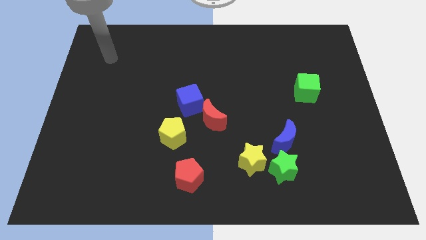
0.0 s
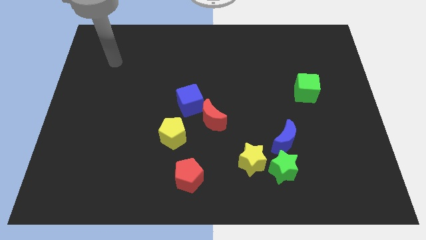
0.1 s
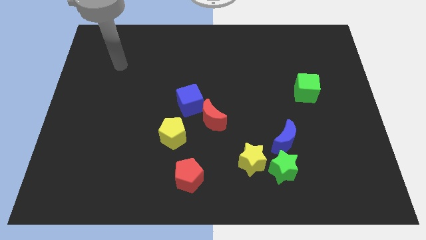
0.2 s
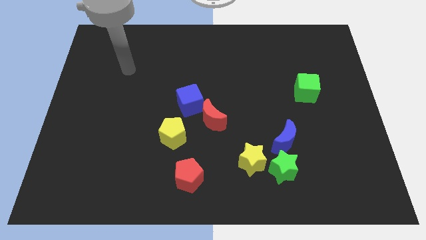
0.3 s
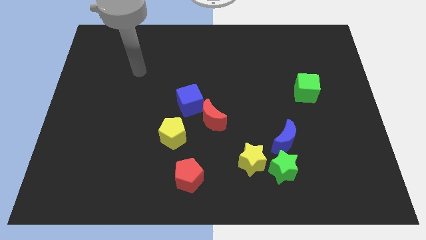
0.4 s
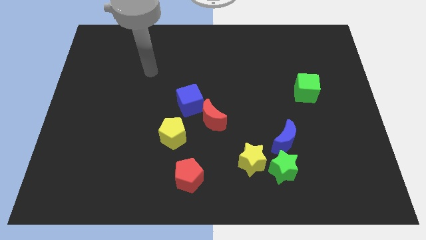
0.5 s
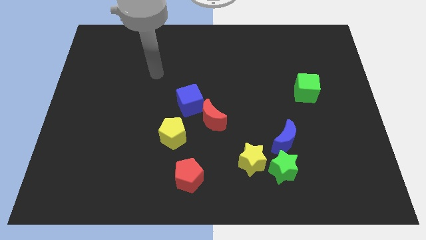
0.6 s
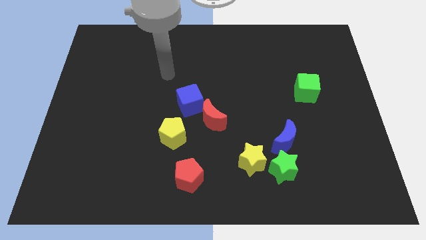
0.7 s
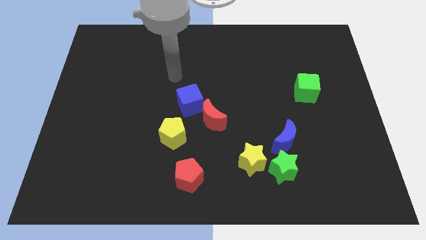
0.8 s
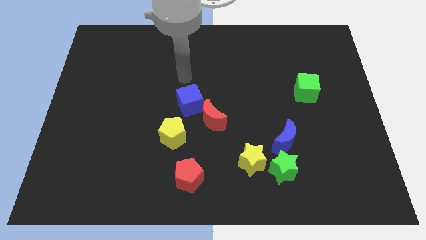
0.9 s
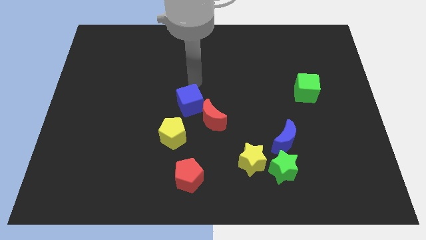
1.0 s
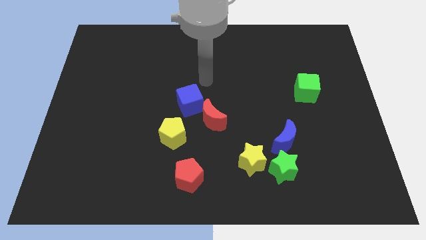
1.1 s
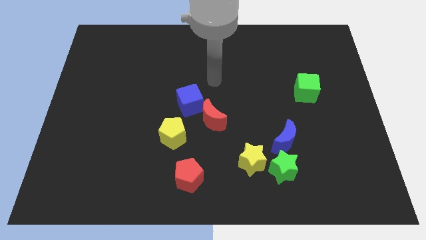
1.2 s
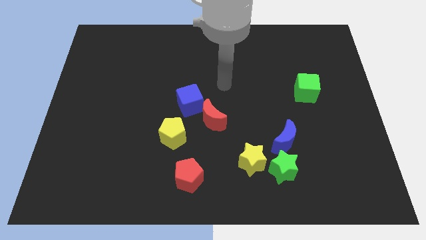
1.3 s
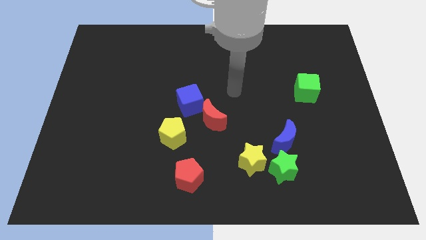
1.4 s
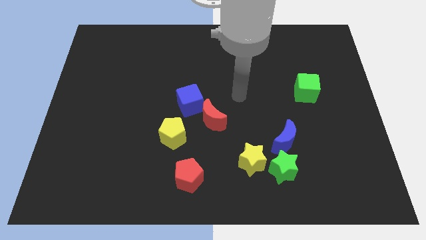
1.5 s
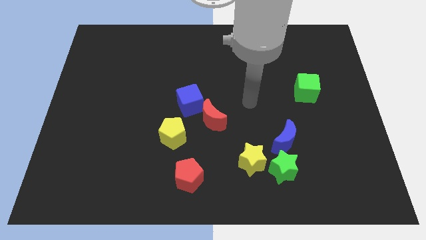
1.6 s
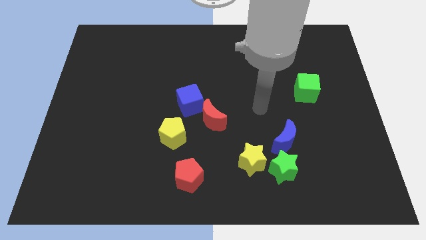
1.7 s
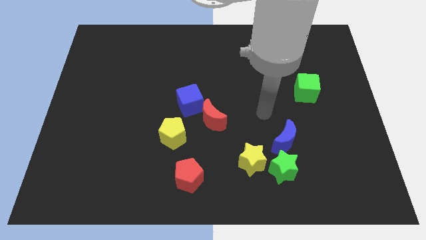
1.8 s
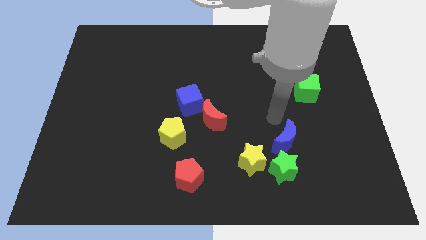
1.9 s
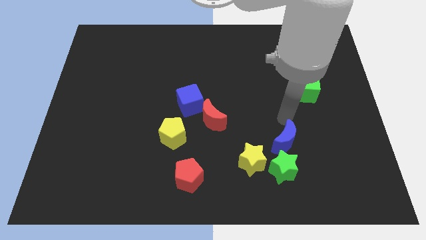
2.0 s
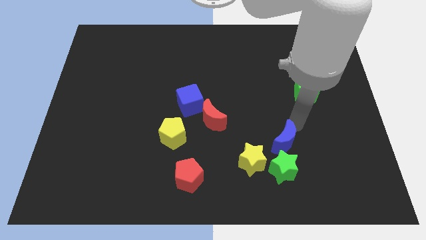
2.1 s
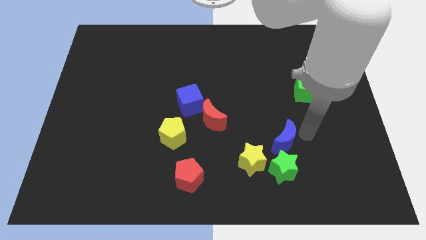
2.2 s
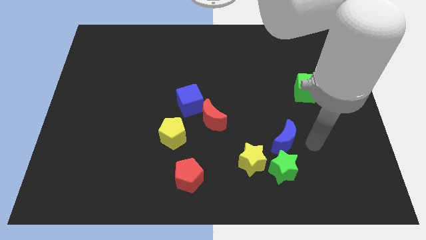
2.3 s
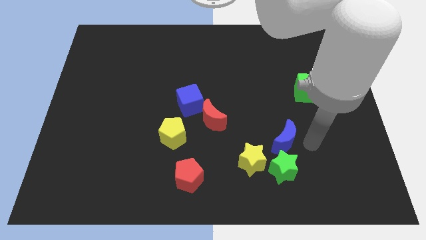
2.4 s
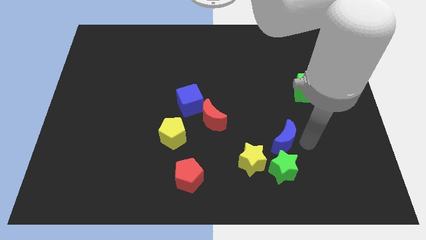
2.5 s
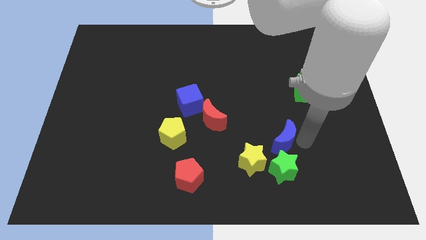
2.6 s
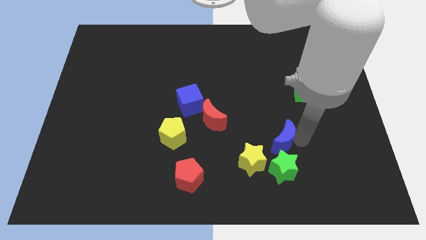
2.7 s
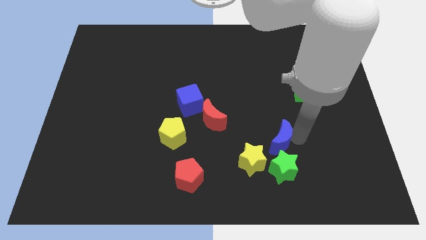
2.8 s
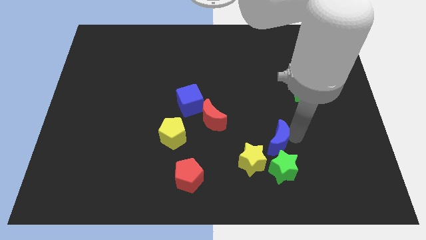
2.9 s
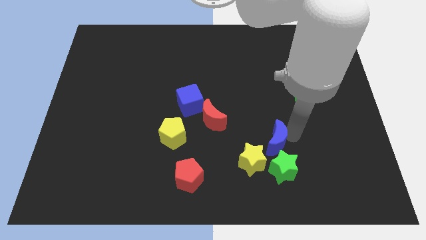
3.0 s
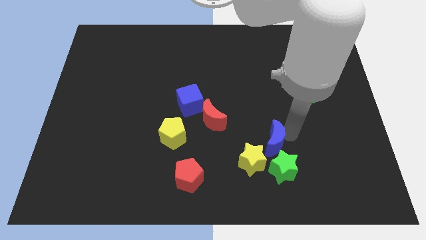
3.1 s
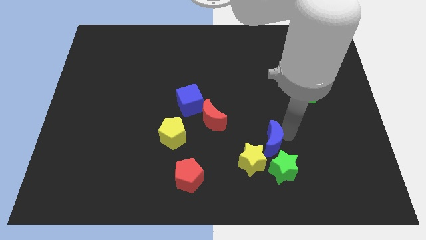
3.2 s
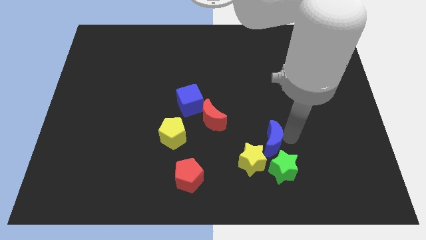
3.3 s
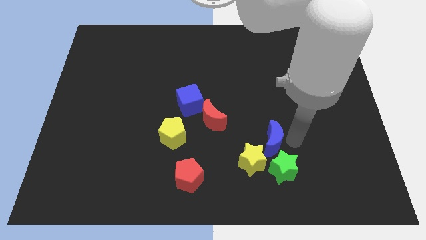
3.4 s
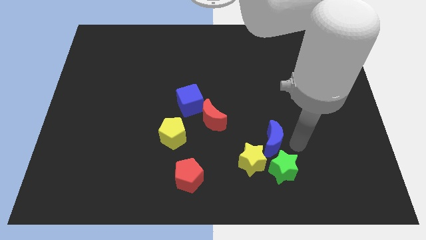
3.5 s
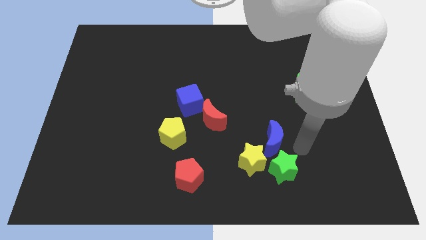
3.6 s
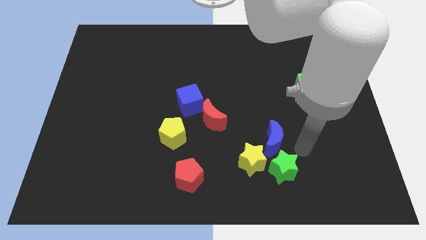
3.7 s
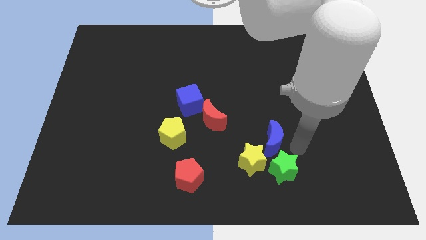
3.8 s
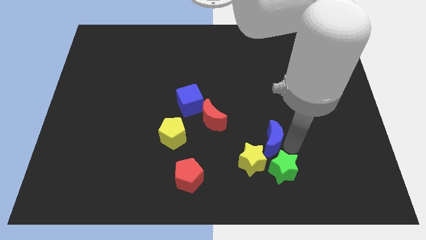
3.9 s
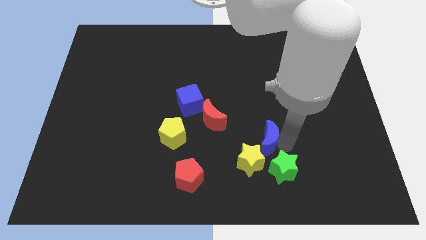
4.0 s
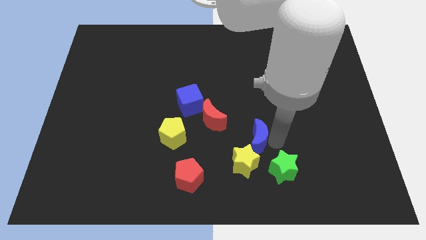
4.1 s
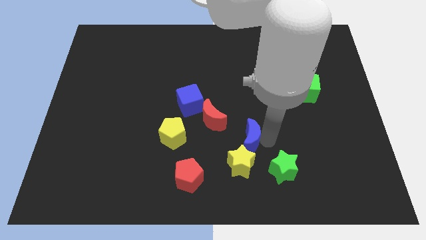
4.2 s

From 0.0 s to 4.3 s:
push the blue moon slightly to the left

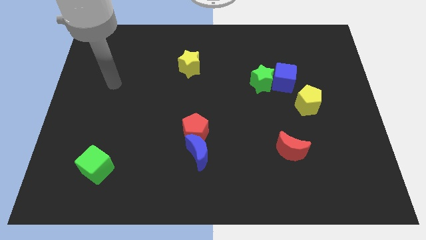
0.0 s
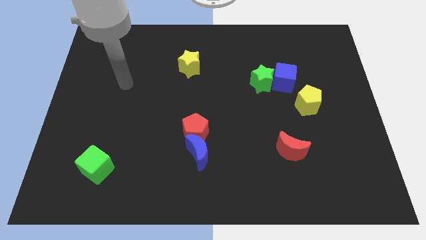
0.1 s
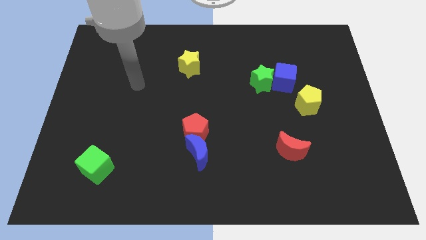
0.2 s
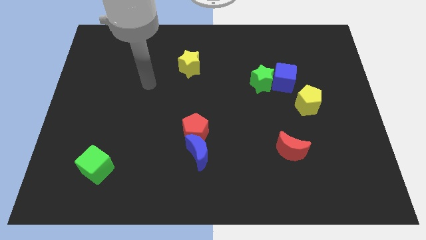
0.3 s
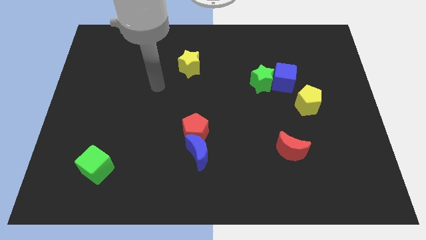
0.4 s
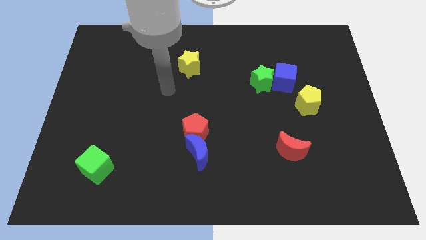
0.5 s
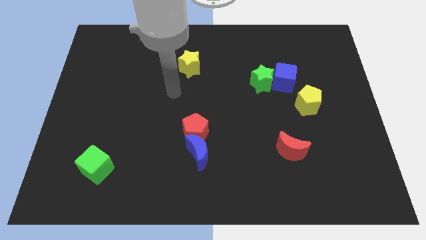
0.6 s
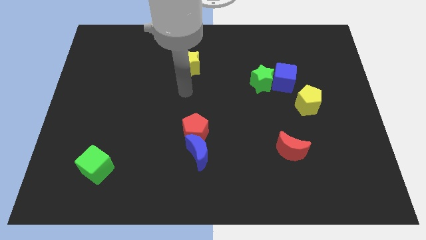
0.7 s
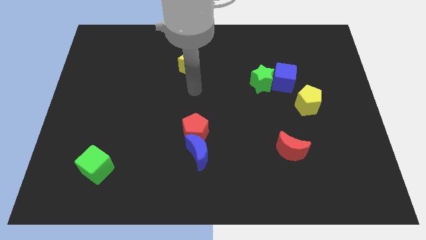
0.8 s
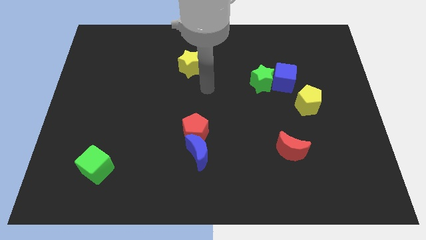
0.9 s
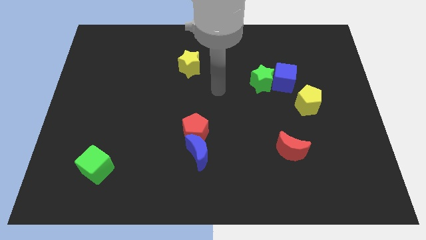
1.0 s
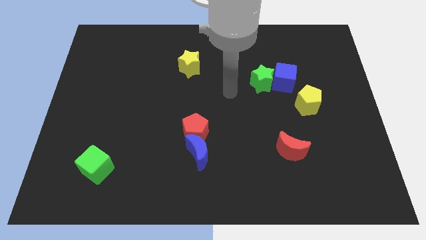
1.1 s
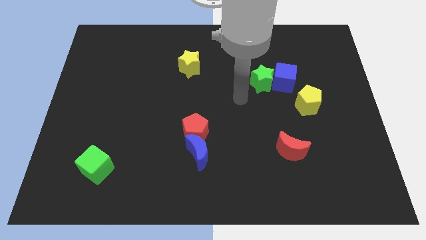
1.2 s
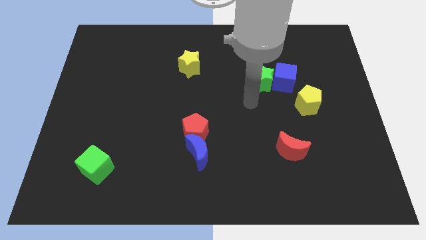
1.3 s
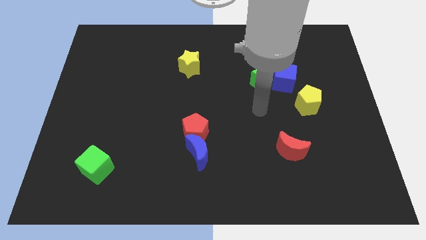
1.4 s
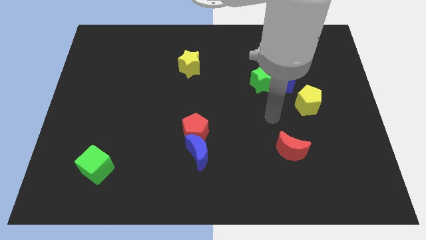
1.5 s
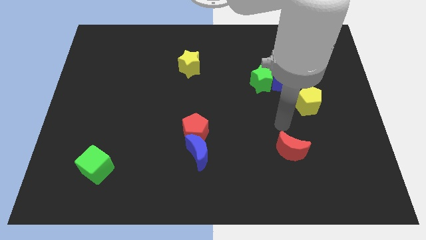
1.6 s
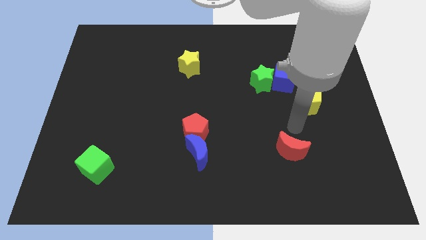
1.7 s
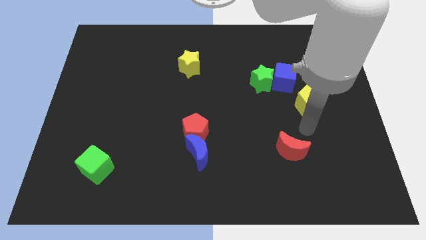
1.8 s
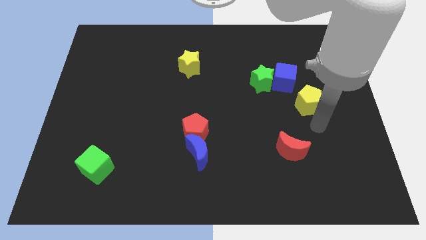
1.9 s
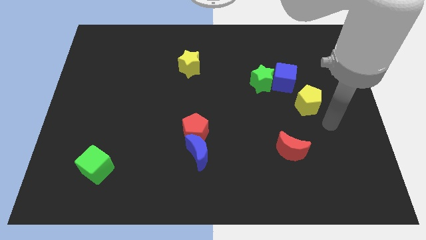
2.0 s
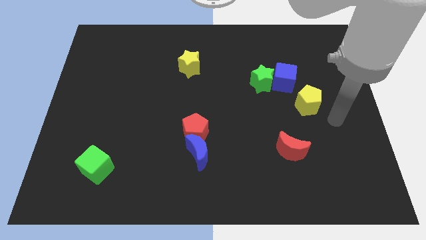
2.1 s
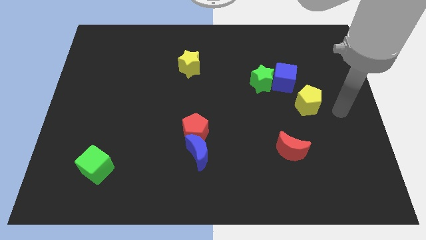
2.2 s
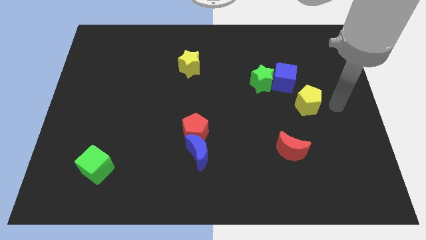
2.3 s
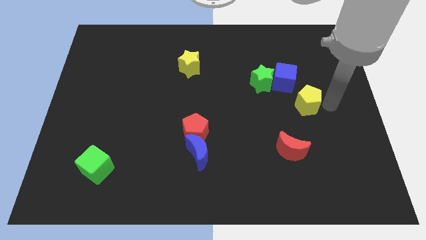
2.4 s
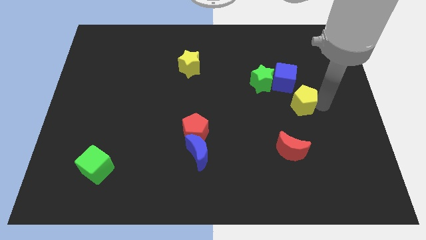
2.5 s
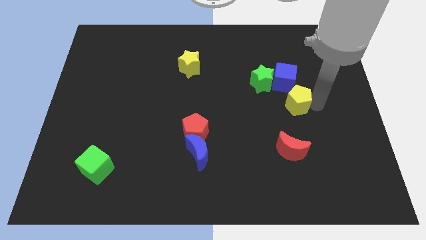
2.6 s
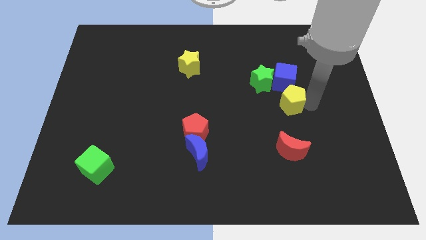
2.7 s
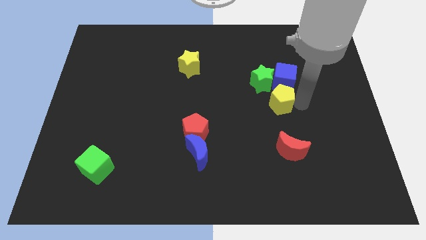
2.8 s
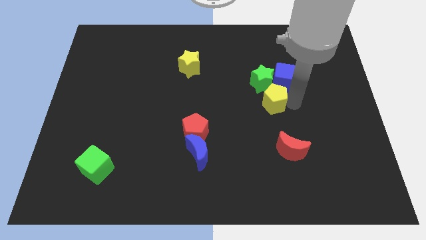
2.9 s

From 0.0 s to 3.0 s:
slightly move the yellow pentagon to the left

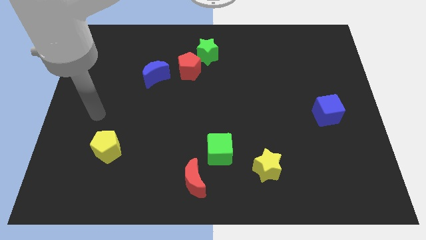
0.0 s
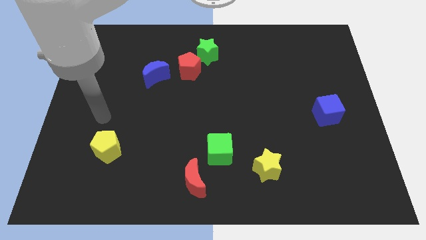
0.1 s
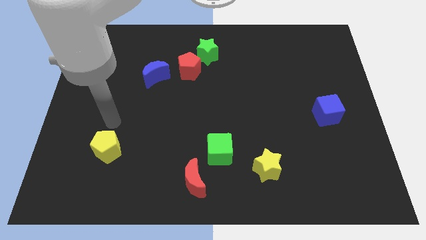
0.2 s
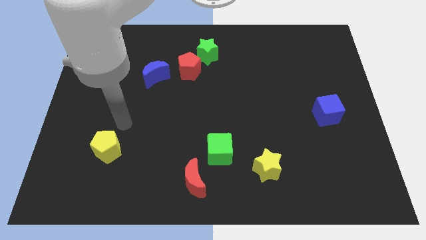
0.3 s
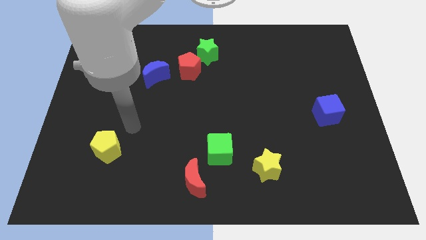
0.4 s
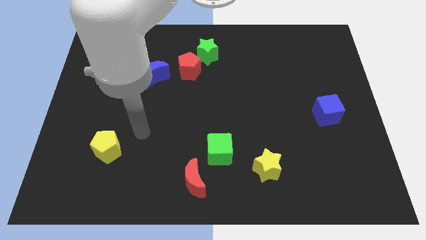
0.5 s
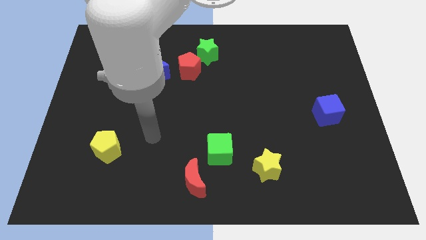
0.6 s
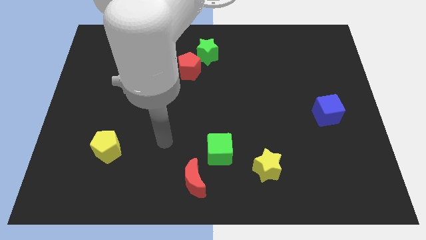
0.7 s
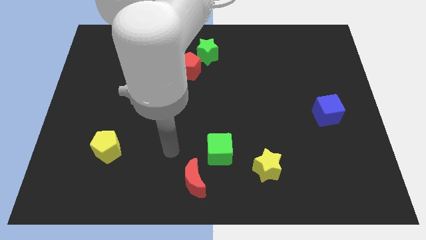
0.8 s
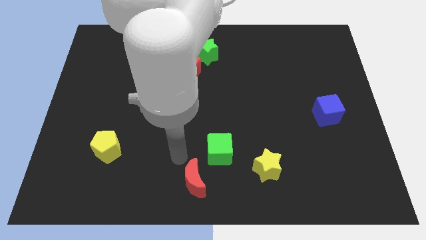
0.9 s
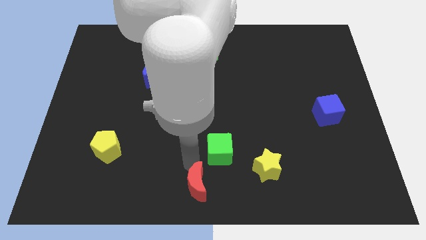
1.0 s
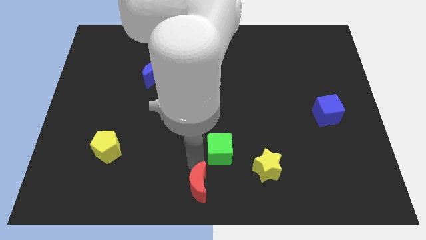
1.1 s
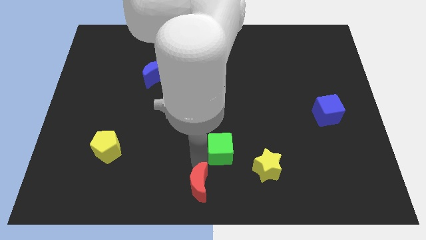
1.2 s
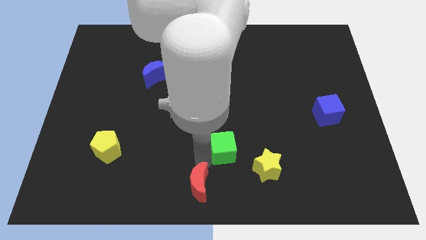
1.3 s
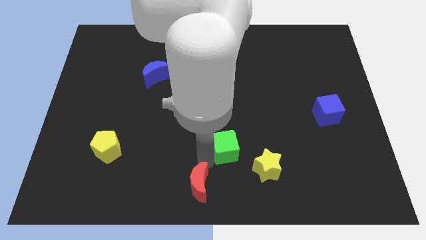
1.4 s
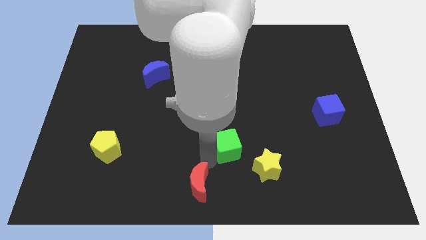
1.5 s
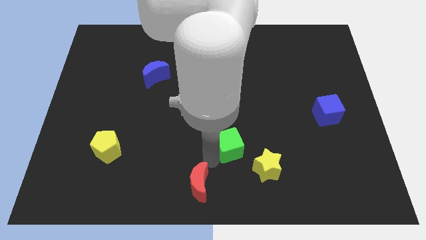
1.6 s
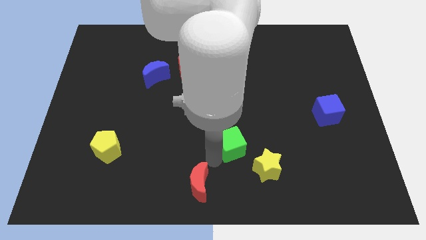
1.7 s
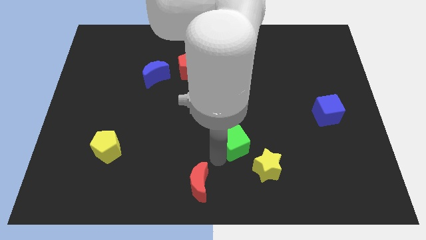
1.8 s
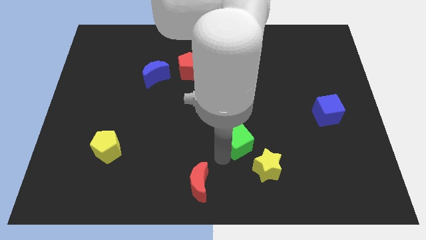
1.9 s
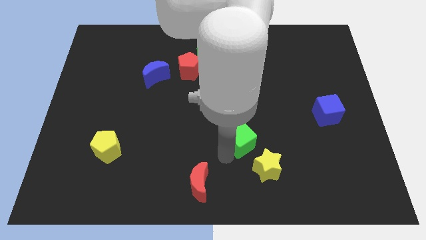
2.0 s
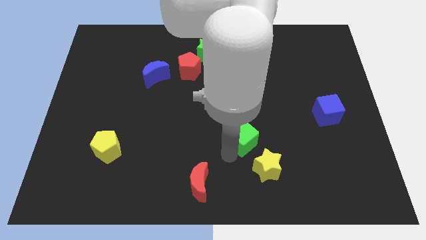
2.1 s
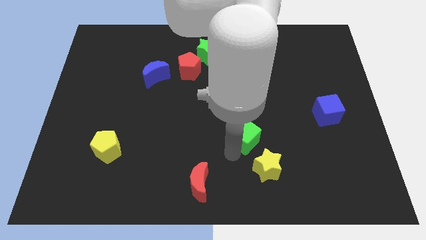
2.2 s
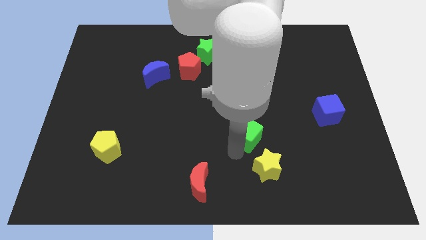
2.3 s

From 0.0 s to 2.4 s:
move the green cube upwards and to the right diagonally a bit
